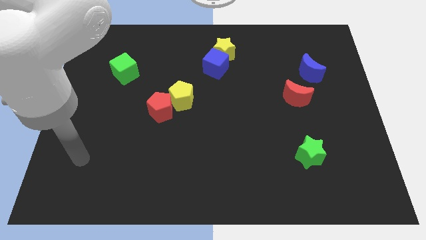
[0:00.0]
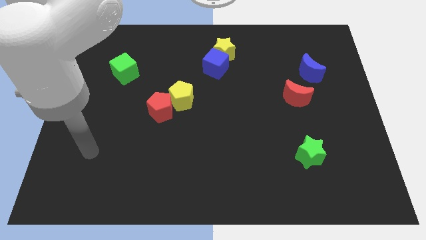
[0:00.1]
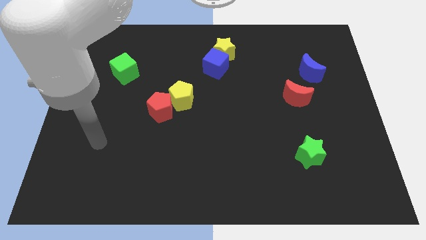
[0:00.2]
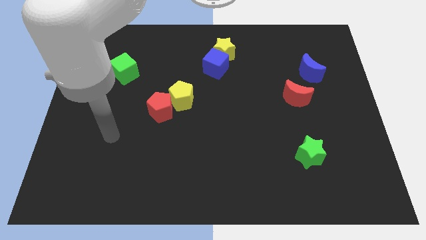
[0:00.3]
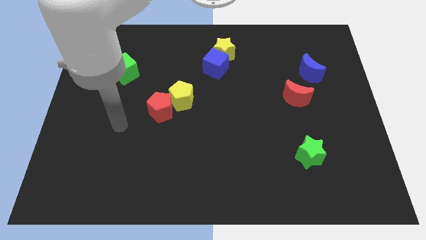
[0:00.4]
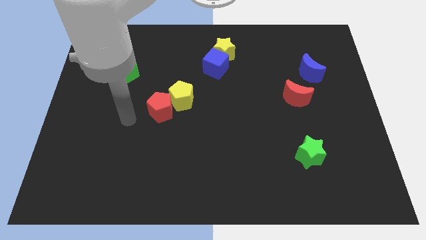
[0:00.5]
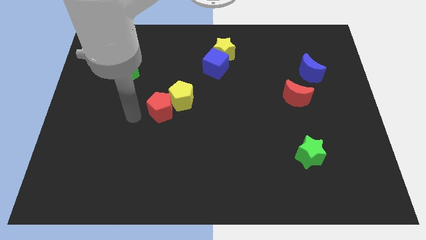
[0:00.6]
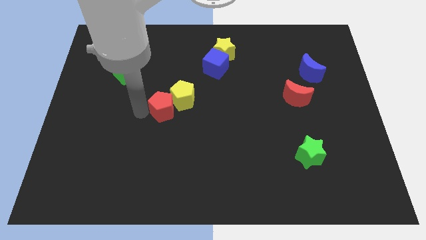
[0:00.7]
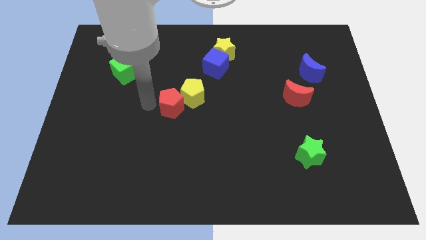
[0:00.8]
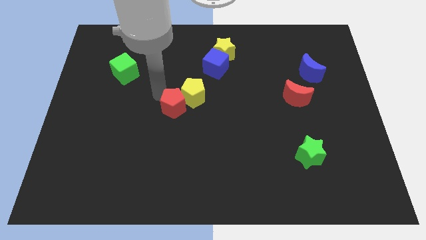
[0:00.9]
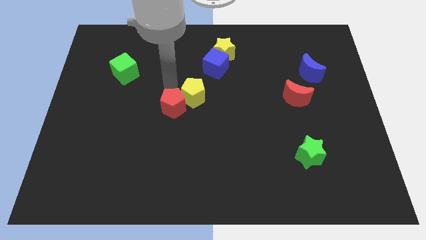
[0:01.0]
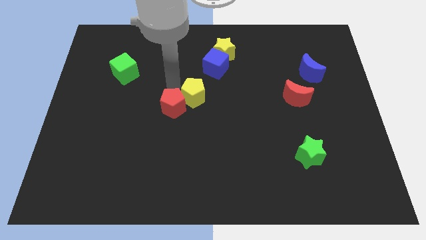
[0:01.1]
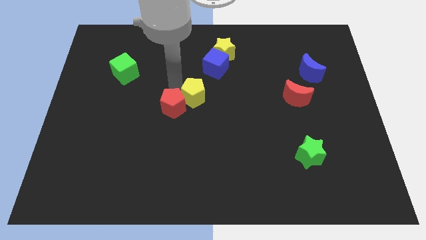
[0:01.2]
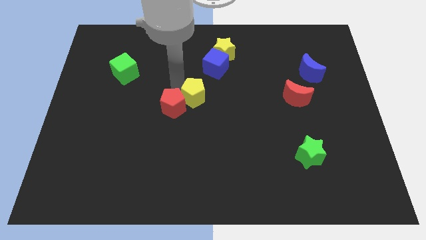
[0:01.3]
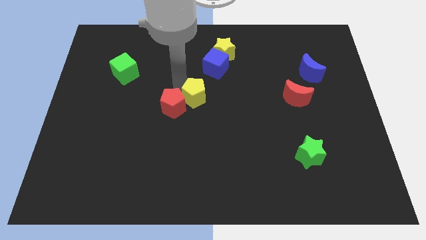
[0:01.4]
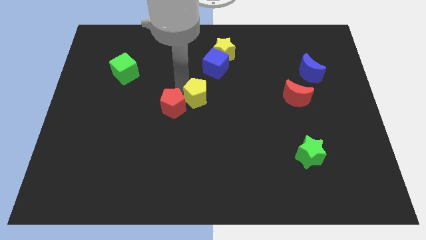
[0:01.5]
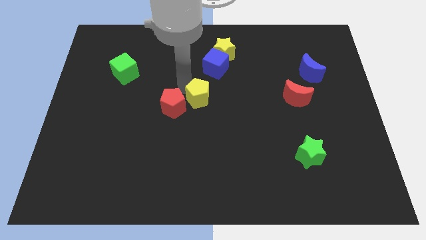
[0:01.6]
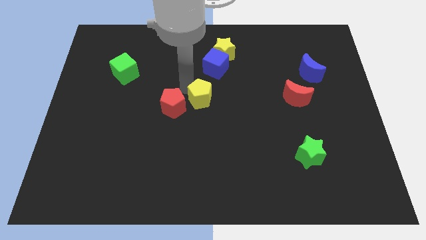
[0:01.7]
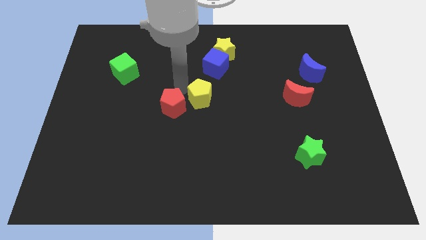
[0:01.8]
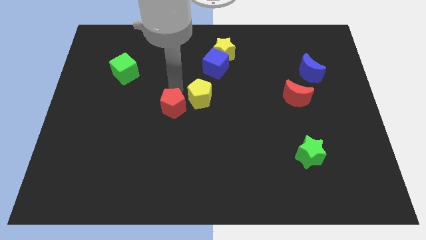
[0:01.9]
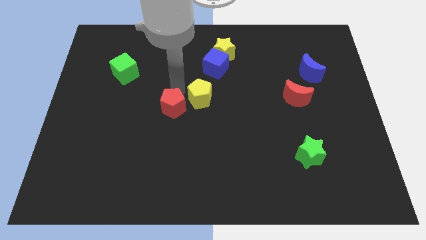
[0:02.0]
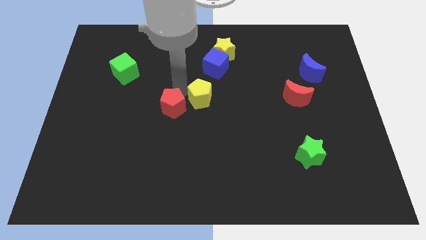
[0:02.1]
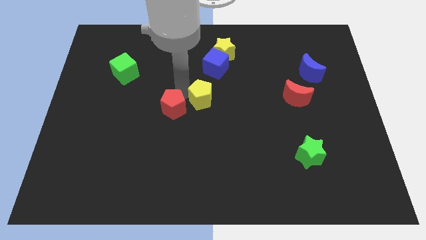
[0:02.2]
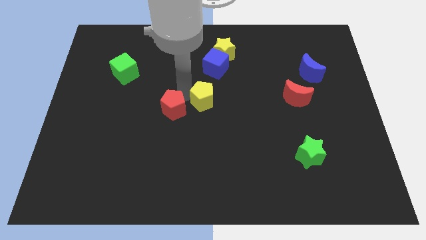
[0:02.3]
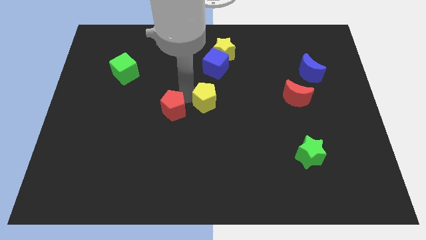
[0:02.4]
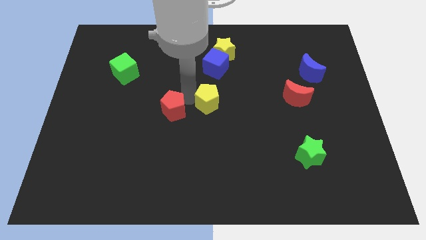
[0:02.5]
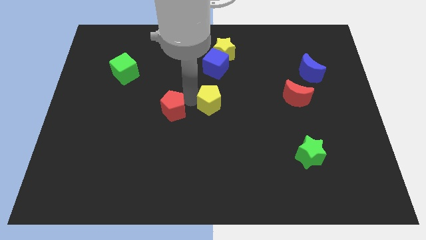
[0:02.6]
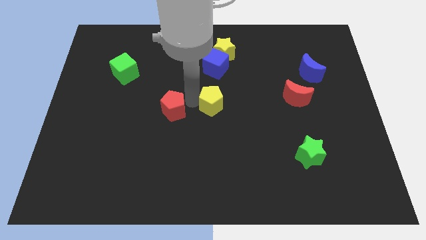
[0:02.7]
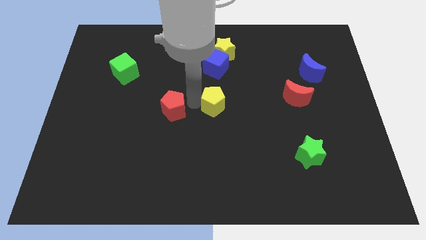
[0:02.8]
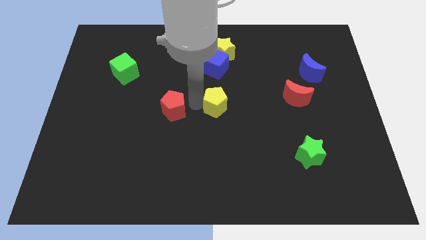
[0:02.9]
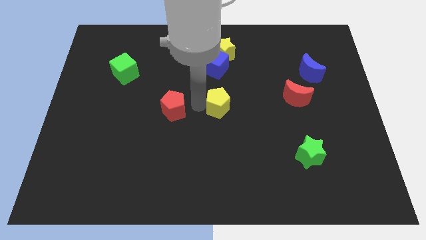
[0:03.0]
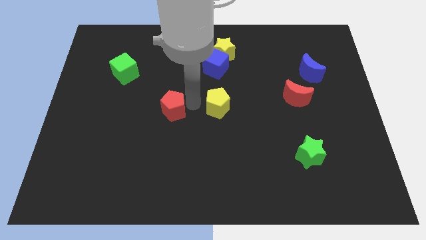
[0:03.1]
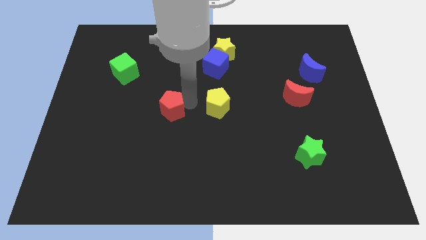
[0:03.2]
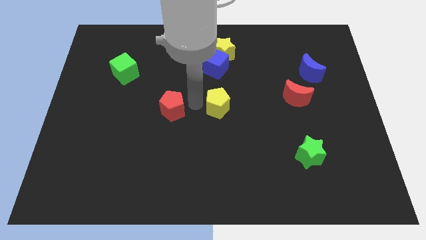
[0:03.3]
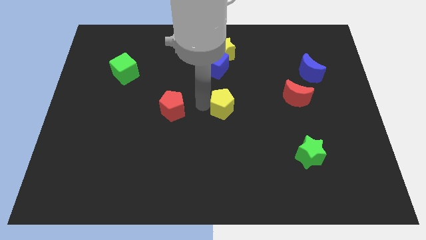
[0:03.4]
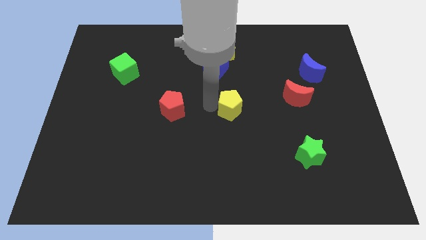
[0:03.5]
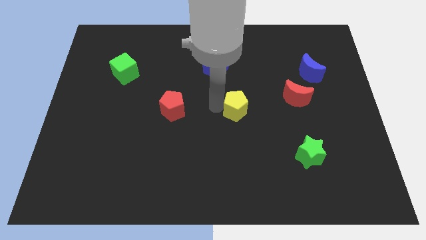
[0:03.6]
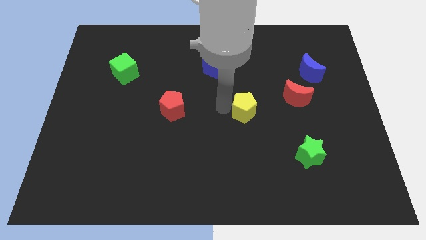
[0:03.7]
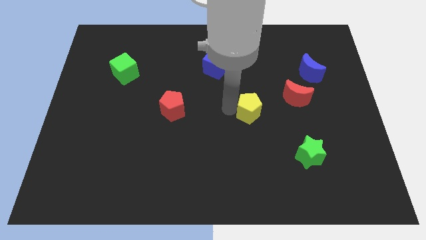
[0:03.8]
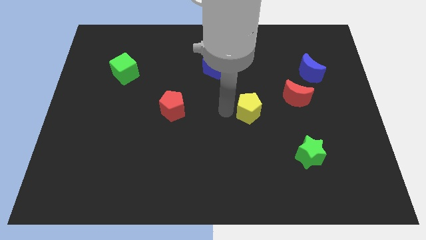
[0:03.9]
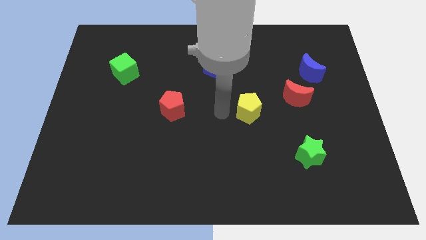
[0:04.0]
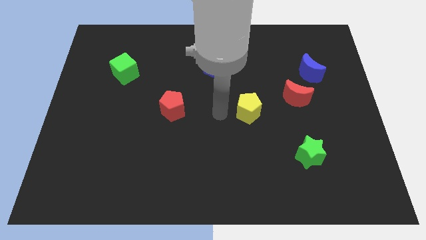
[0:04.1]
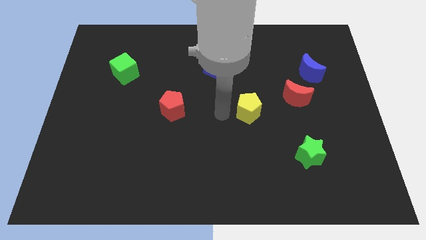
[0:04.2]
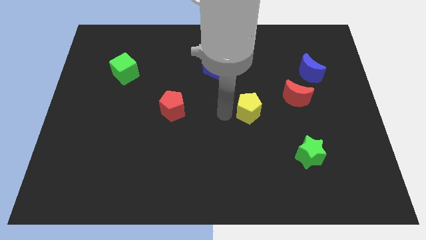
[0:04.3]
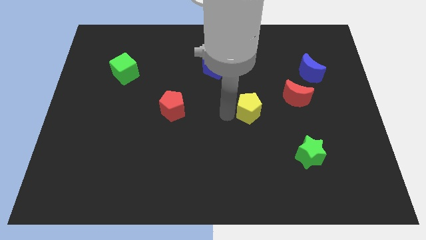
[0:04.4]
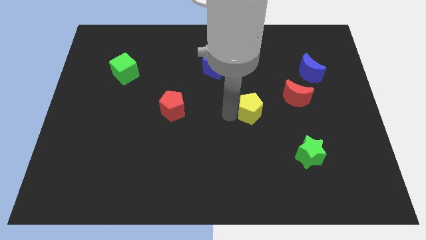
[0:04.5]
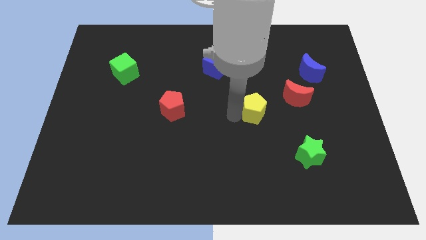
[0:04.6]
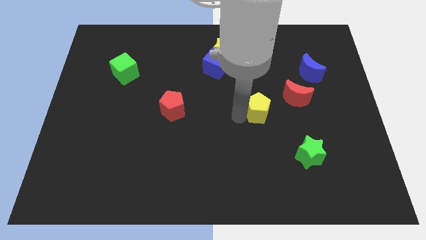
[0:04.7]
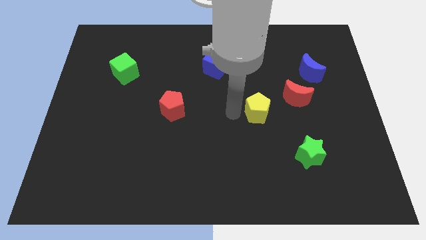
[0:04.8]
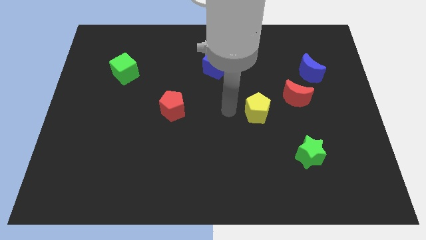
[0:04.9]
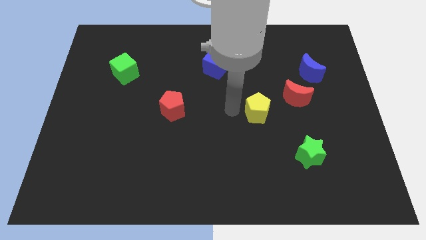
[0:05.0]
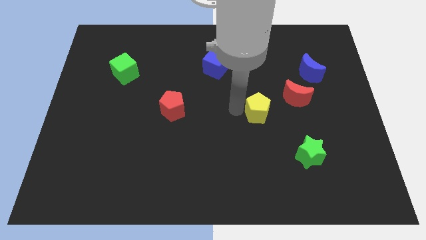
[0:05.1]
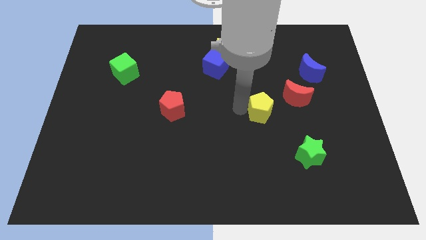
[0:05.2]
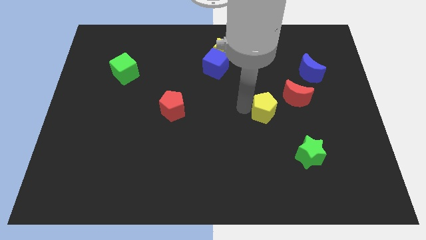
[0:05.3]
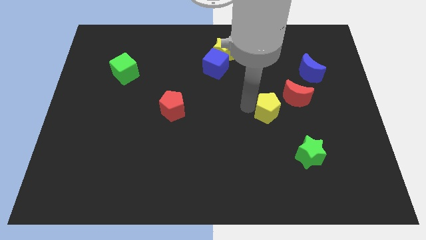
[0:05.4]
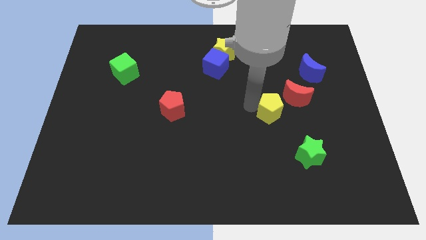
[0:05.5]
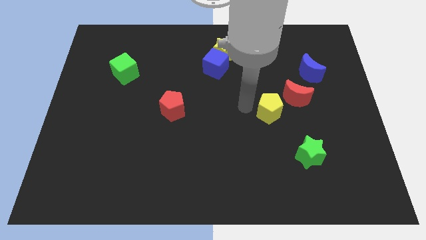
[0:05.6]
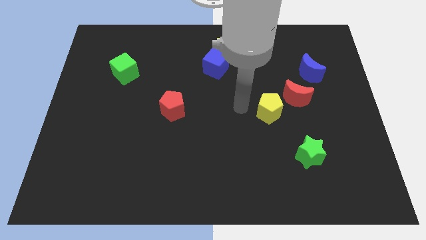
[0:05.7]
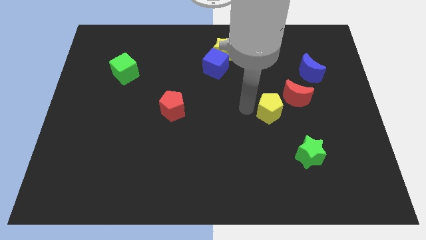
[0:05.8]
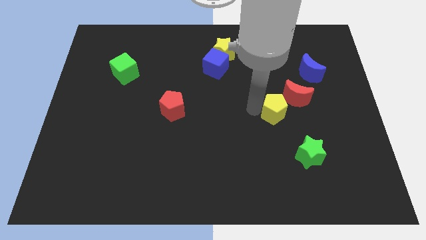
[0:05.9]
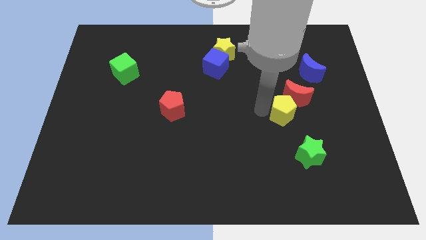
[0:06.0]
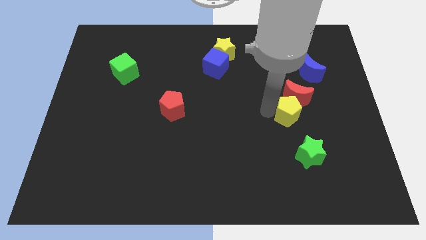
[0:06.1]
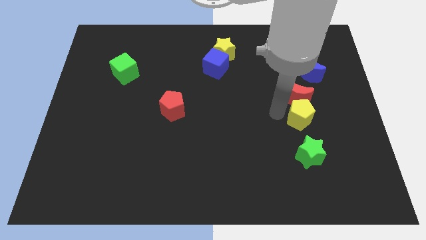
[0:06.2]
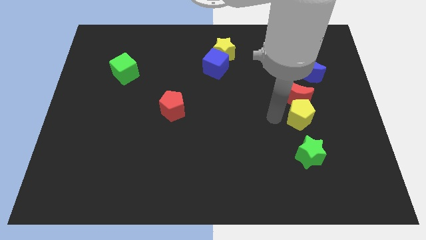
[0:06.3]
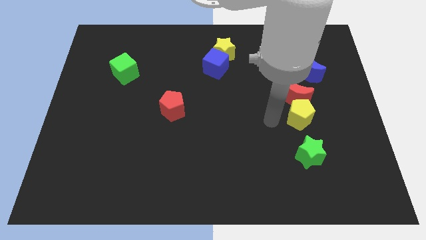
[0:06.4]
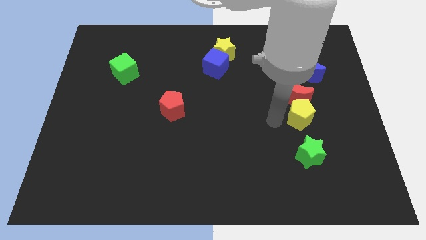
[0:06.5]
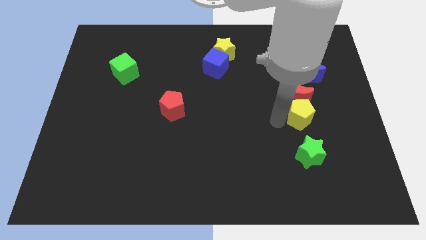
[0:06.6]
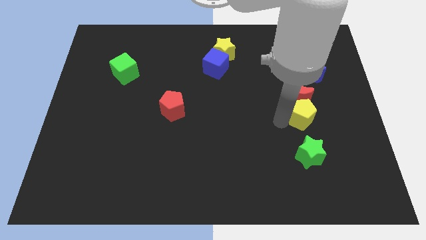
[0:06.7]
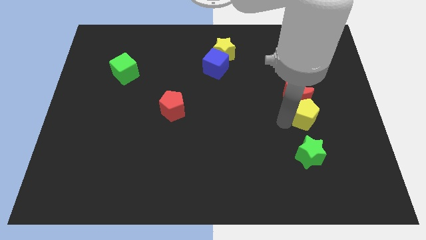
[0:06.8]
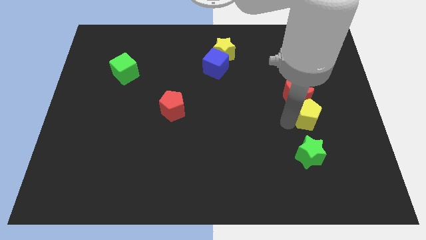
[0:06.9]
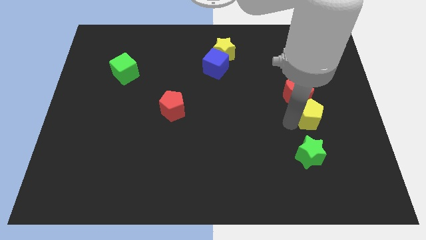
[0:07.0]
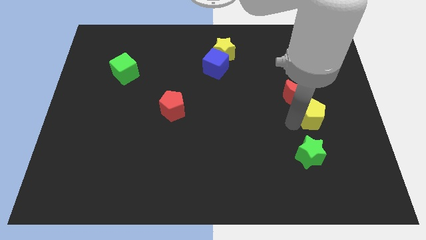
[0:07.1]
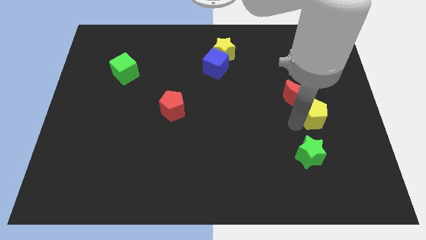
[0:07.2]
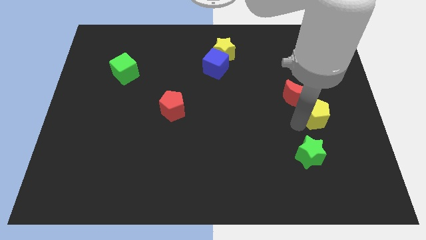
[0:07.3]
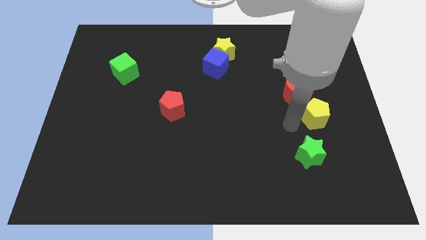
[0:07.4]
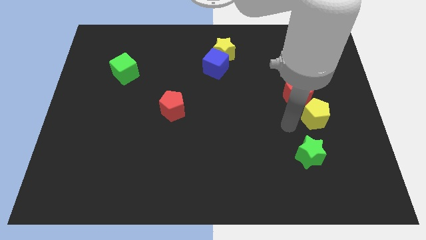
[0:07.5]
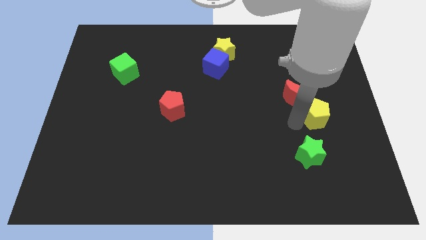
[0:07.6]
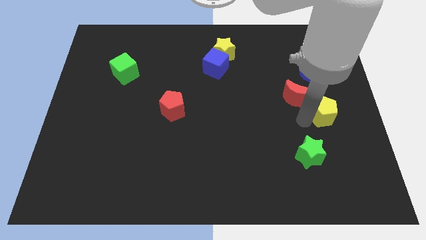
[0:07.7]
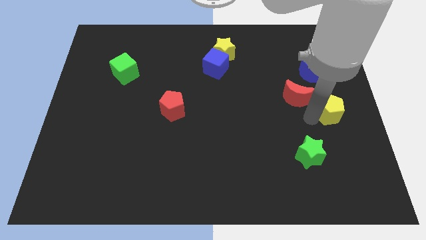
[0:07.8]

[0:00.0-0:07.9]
put the yellow pentagon to the center right
